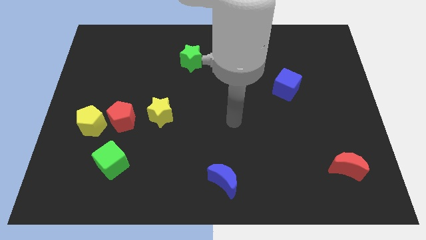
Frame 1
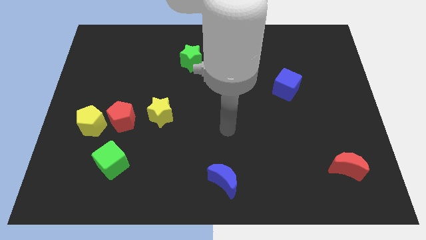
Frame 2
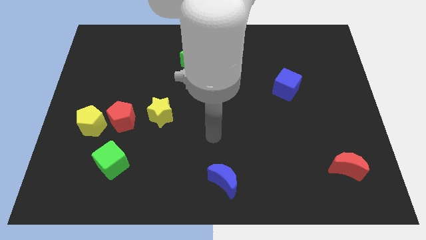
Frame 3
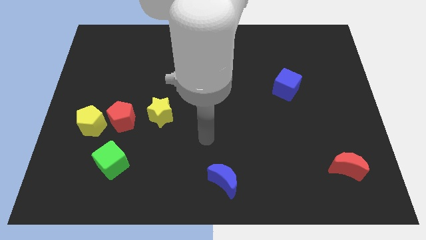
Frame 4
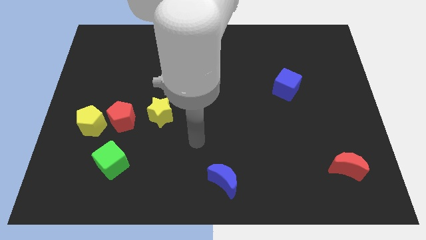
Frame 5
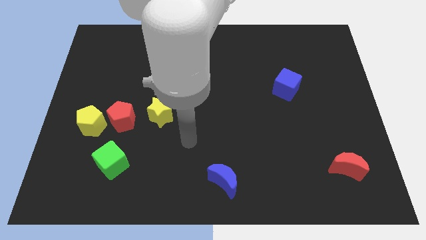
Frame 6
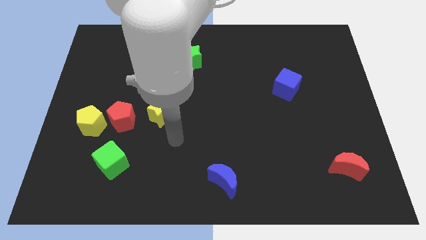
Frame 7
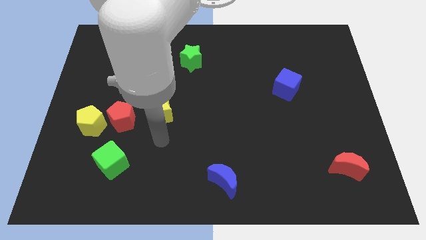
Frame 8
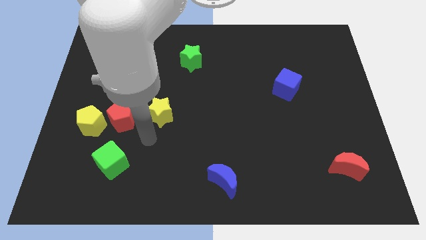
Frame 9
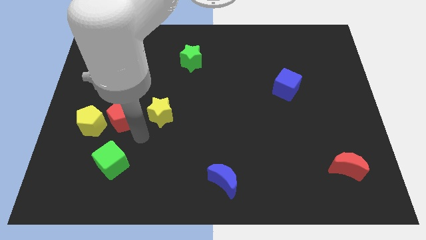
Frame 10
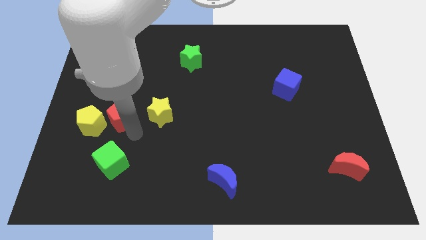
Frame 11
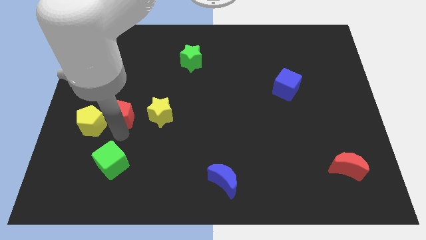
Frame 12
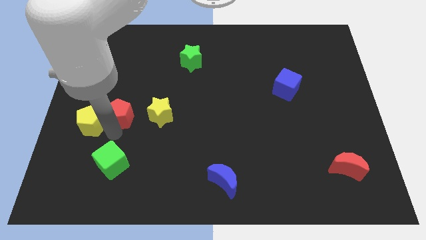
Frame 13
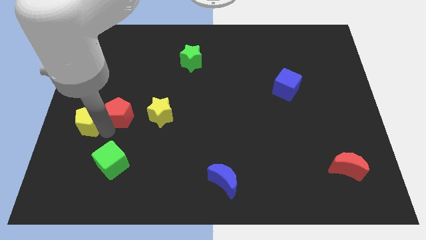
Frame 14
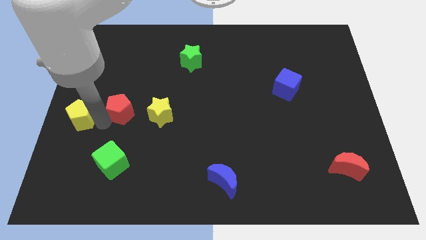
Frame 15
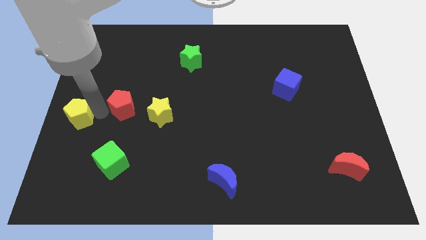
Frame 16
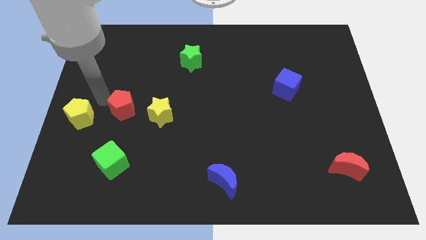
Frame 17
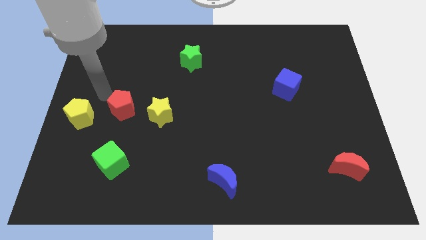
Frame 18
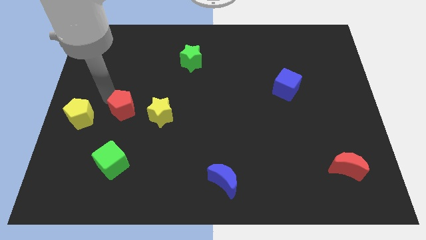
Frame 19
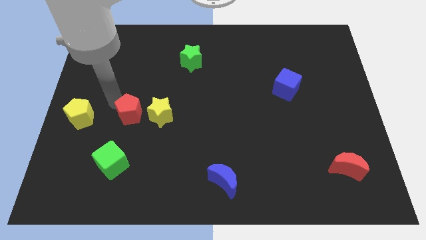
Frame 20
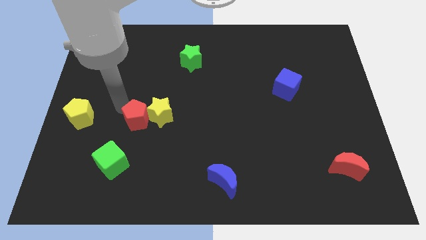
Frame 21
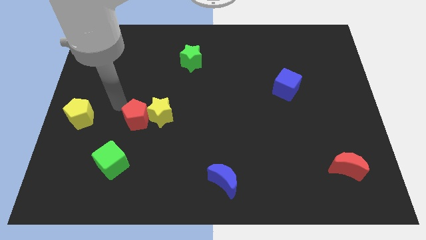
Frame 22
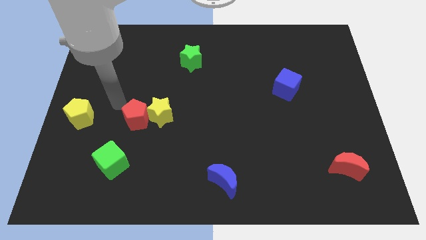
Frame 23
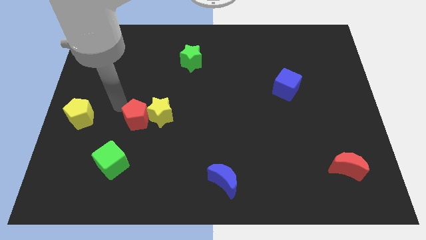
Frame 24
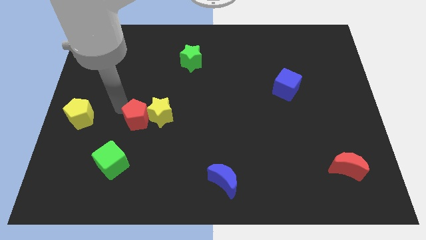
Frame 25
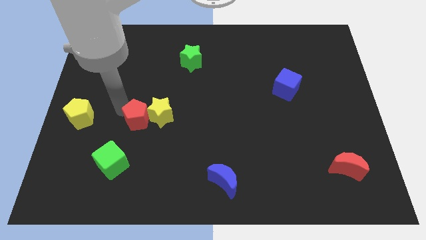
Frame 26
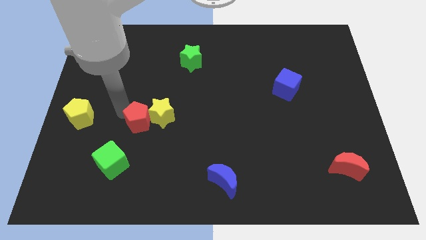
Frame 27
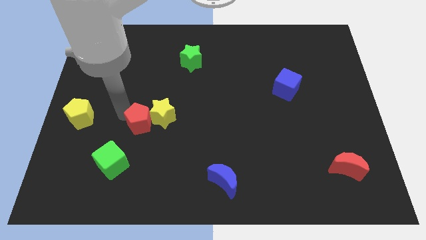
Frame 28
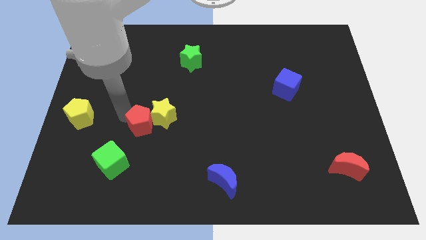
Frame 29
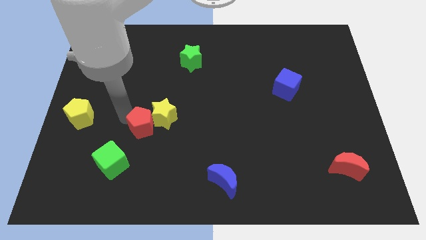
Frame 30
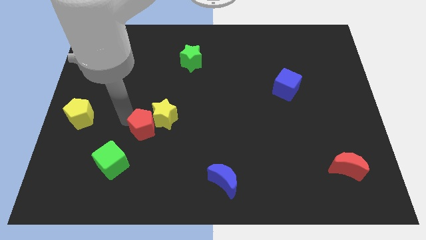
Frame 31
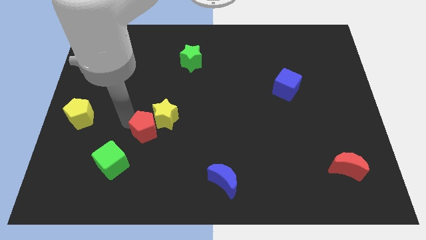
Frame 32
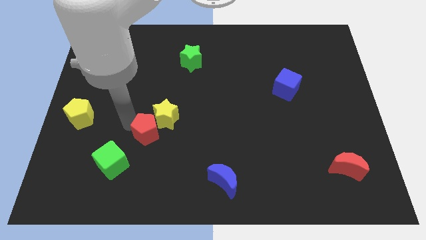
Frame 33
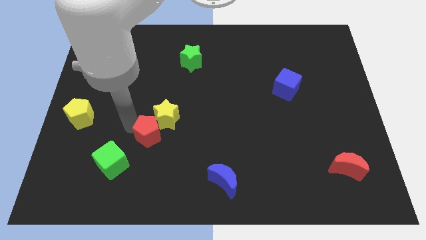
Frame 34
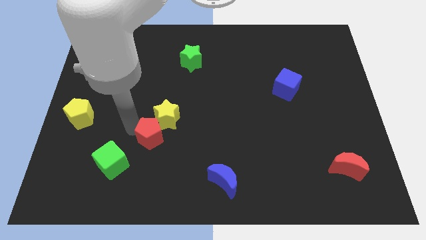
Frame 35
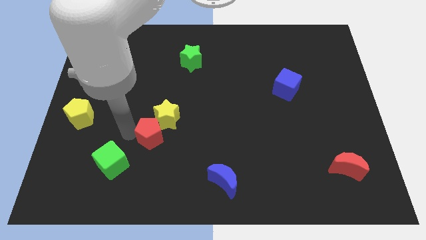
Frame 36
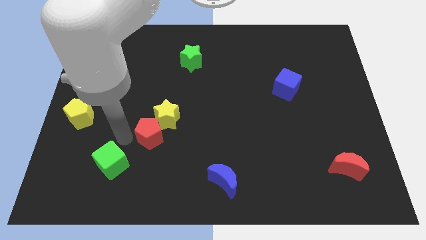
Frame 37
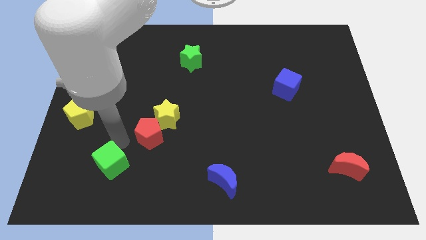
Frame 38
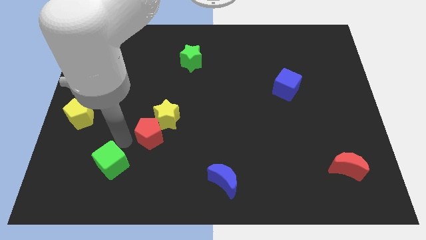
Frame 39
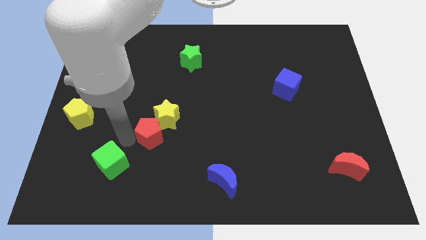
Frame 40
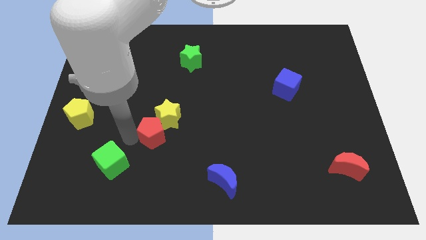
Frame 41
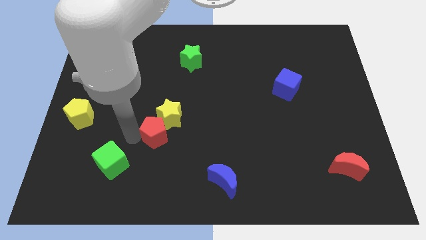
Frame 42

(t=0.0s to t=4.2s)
move the red pentagon to the right a little bit

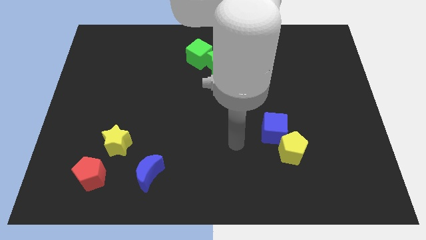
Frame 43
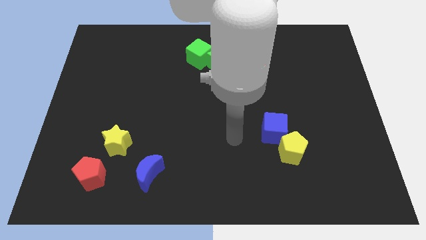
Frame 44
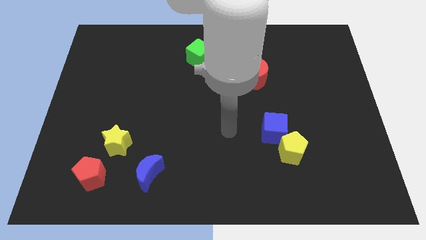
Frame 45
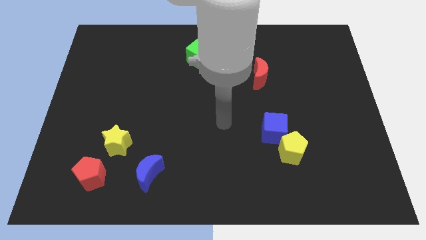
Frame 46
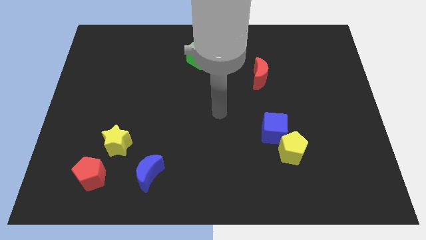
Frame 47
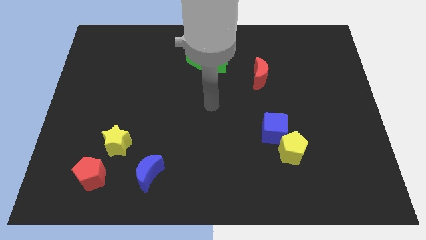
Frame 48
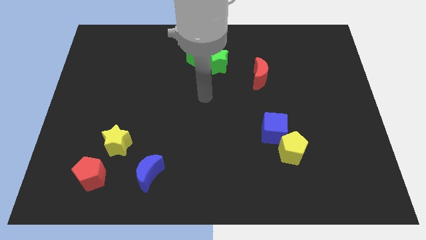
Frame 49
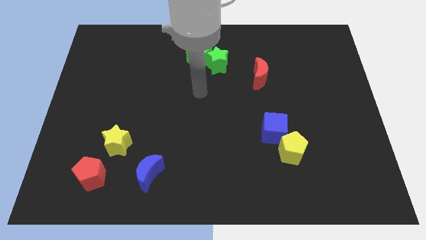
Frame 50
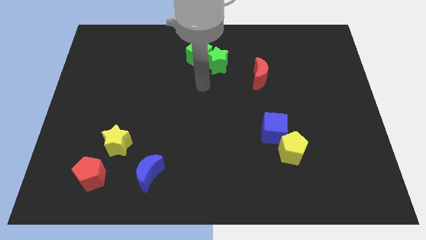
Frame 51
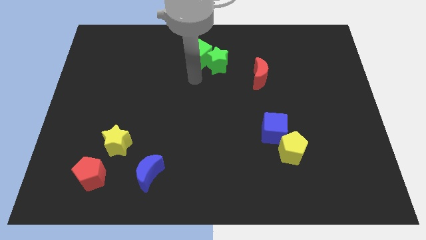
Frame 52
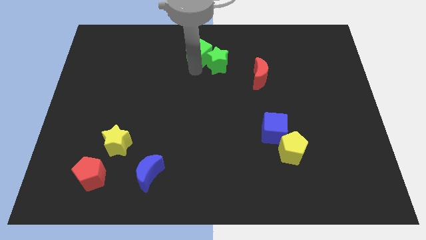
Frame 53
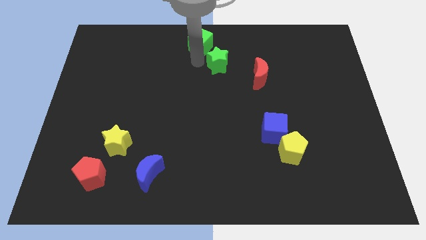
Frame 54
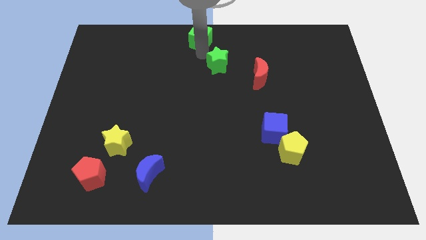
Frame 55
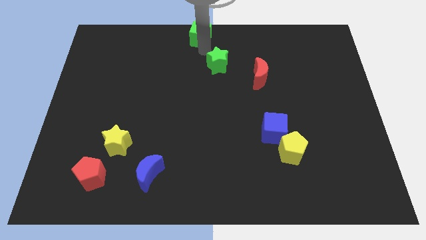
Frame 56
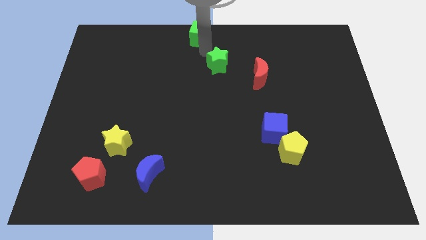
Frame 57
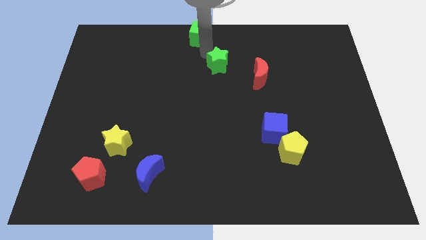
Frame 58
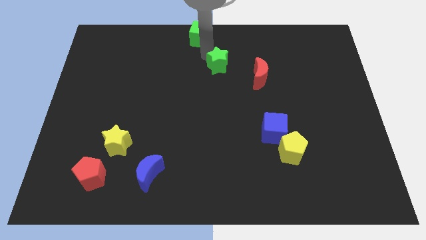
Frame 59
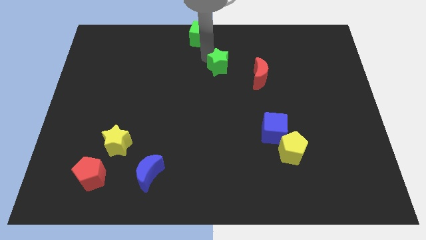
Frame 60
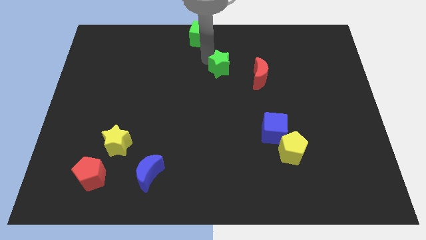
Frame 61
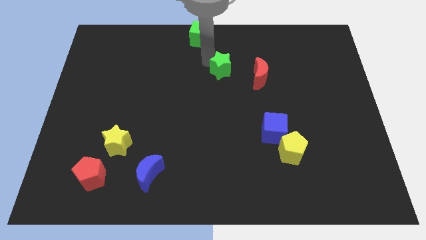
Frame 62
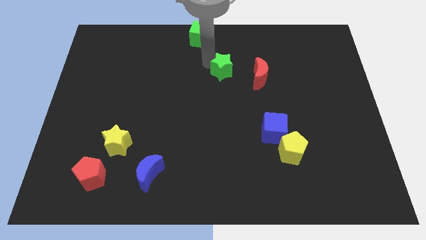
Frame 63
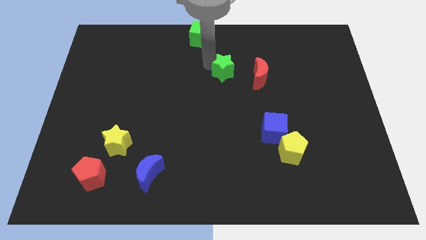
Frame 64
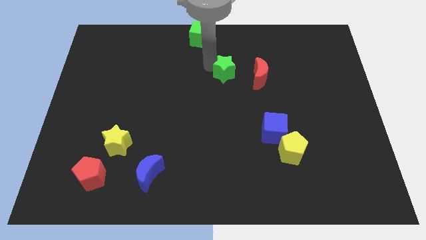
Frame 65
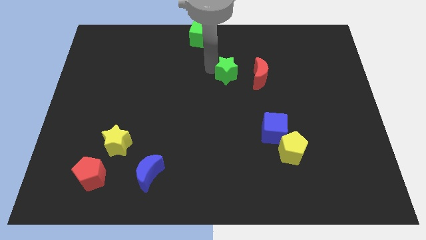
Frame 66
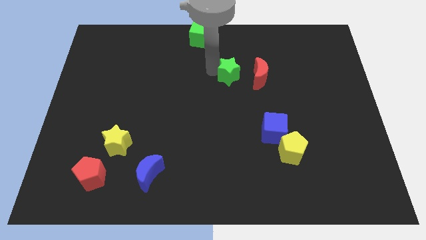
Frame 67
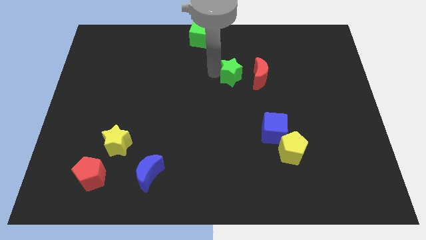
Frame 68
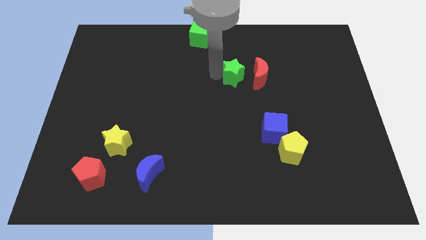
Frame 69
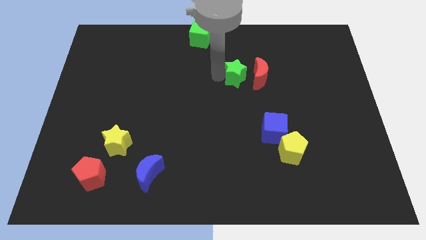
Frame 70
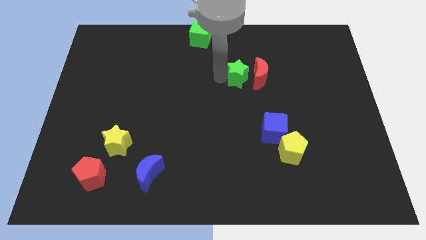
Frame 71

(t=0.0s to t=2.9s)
push the green star a little bit down and to the right diagonally

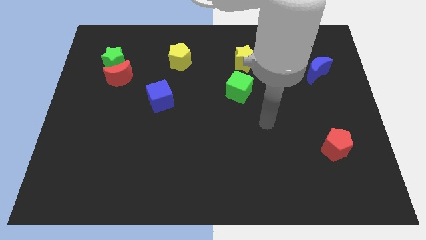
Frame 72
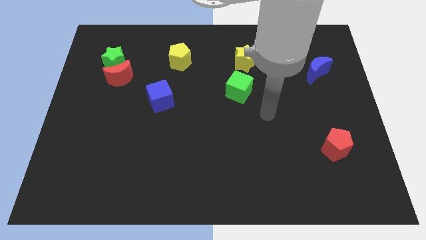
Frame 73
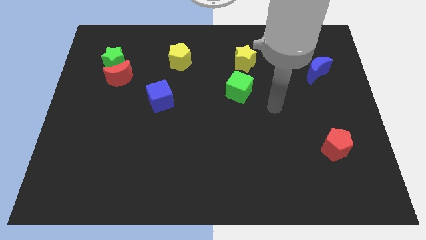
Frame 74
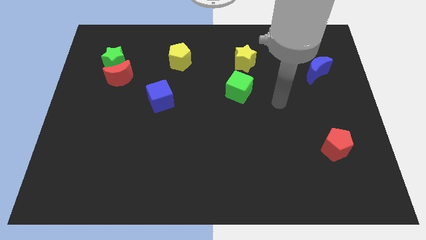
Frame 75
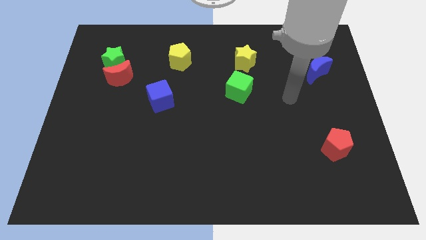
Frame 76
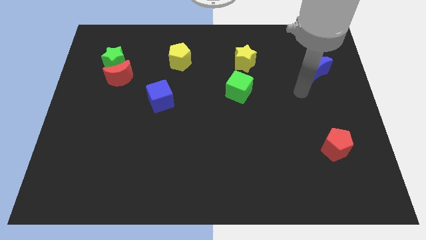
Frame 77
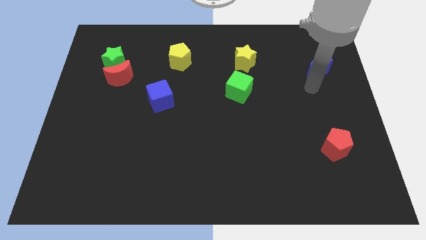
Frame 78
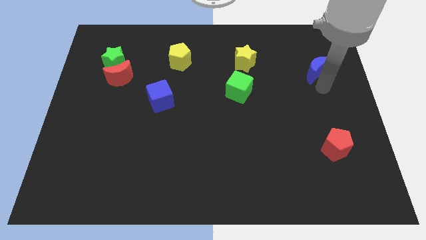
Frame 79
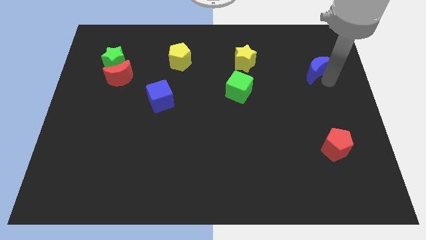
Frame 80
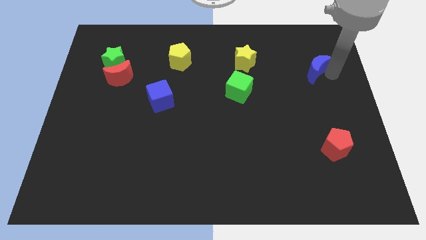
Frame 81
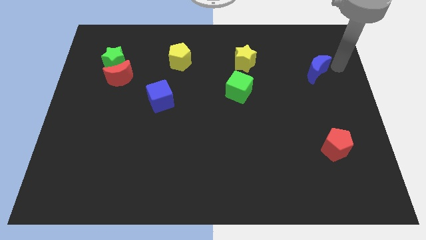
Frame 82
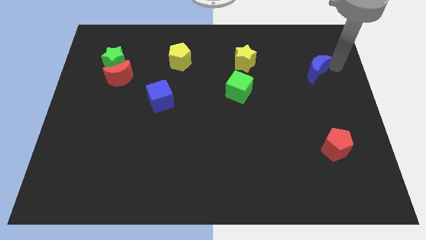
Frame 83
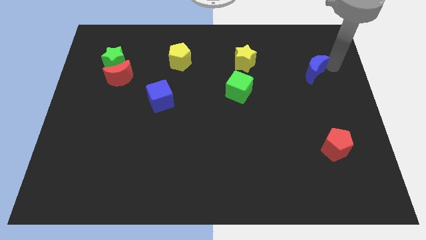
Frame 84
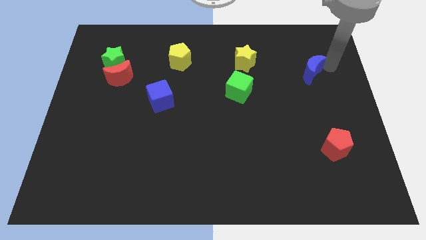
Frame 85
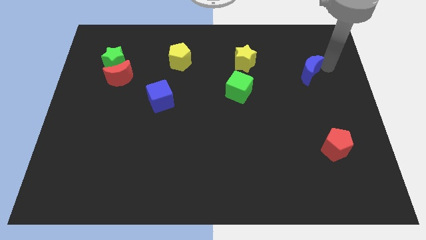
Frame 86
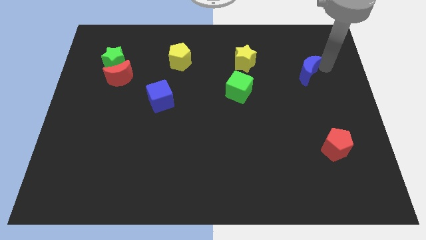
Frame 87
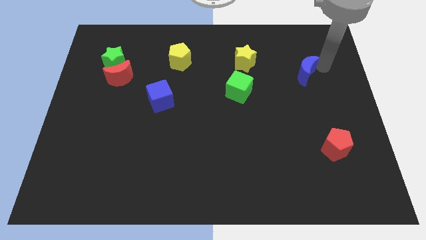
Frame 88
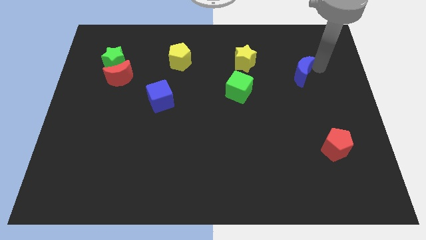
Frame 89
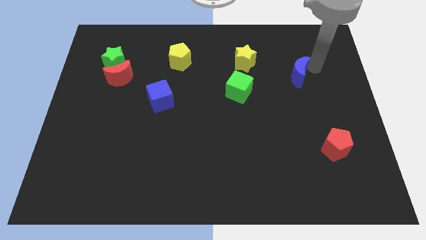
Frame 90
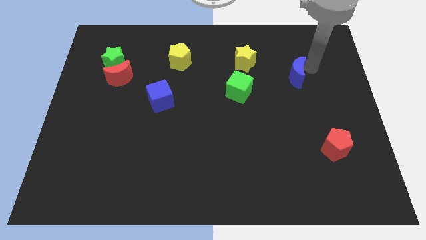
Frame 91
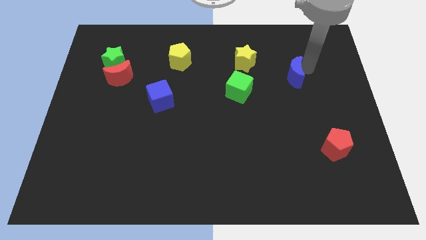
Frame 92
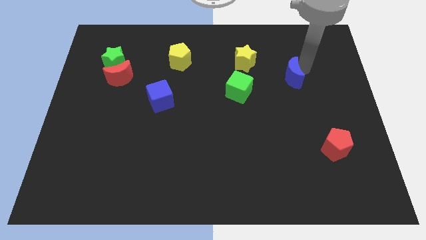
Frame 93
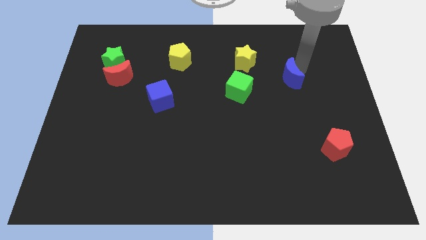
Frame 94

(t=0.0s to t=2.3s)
slightly move the blue moon left
